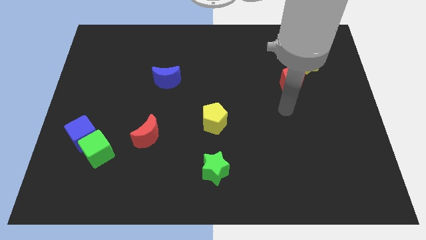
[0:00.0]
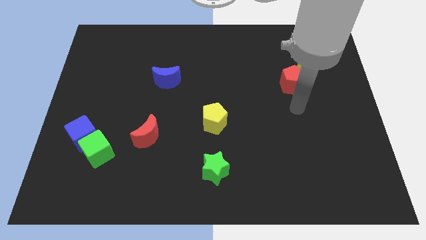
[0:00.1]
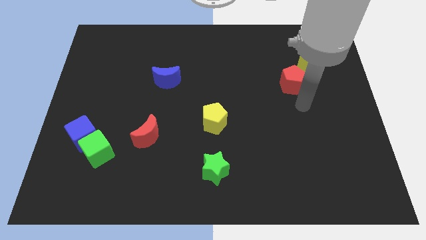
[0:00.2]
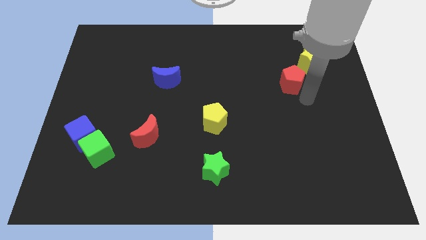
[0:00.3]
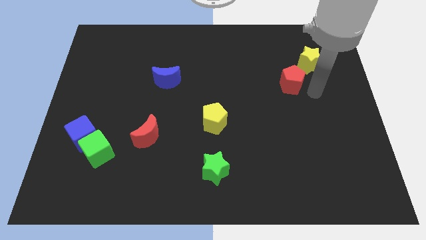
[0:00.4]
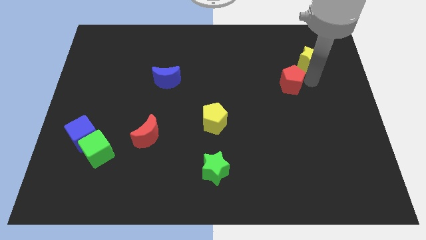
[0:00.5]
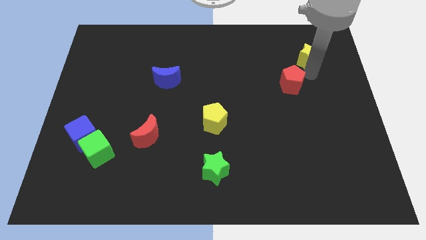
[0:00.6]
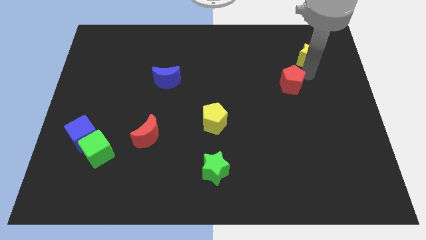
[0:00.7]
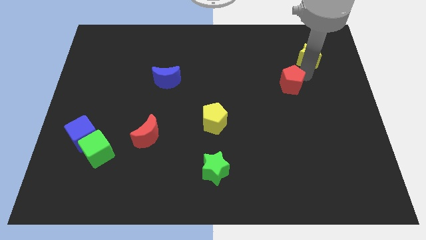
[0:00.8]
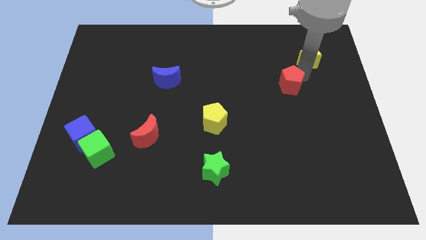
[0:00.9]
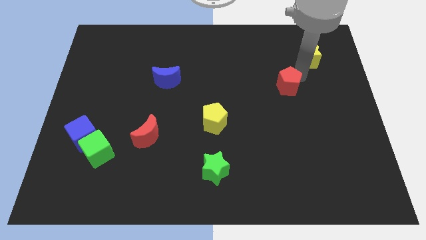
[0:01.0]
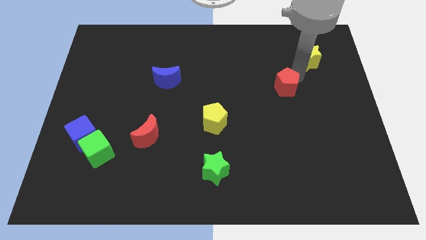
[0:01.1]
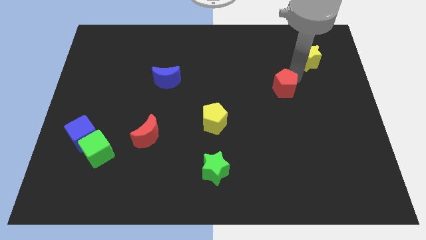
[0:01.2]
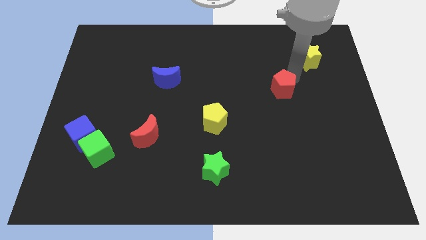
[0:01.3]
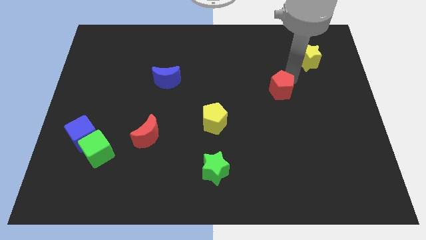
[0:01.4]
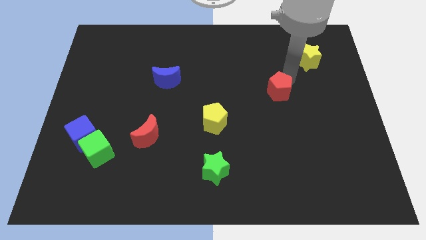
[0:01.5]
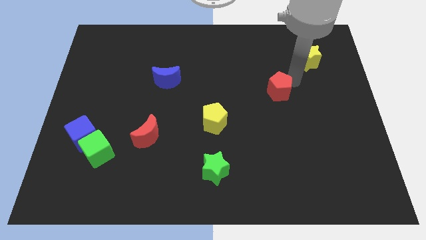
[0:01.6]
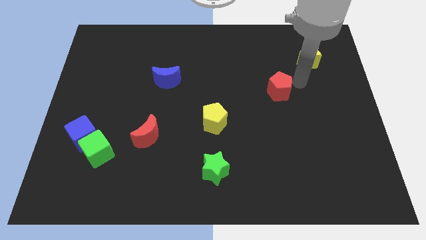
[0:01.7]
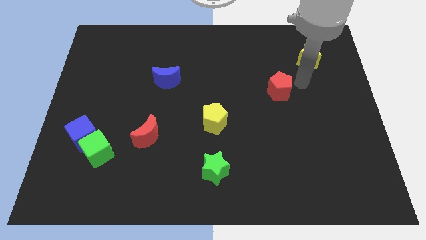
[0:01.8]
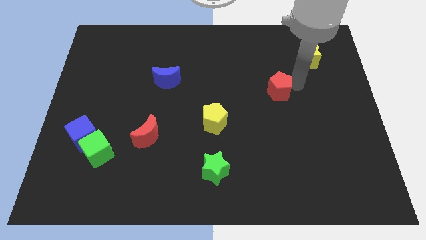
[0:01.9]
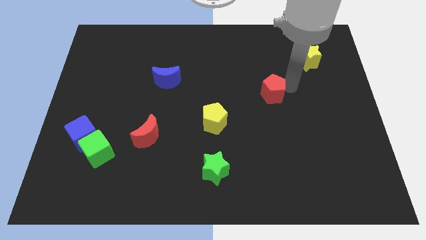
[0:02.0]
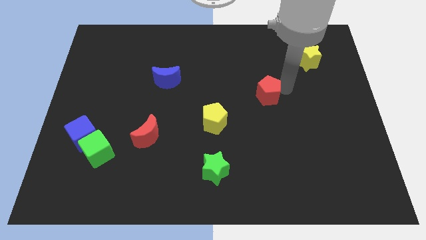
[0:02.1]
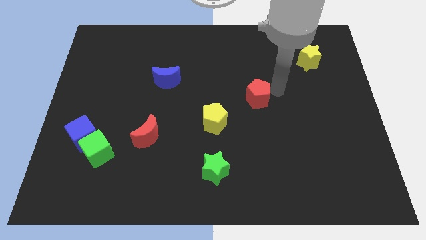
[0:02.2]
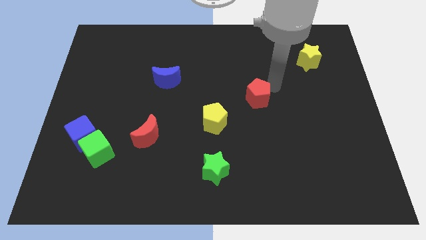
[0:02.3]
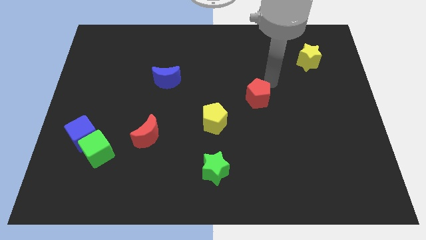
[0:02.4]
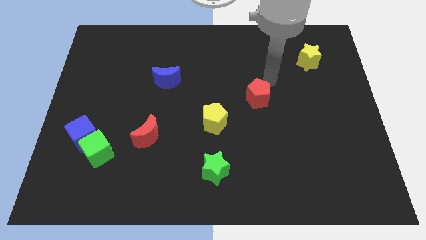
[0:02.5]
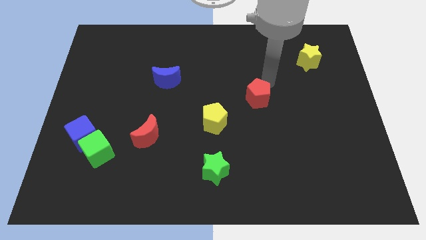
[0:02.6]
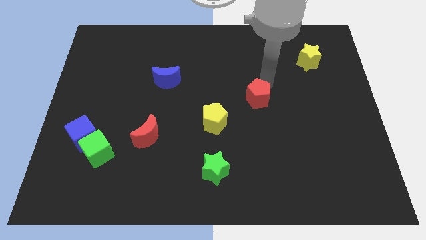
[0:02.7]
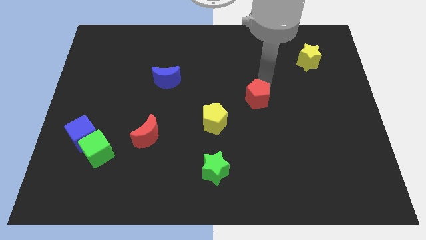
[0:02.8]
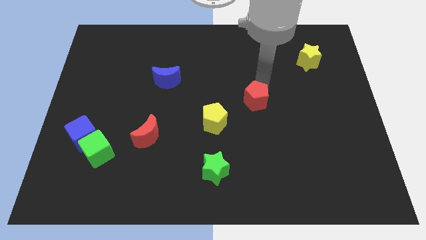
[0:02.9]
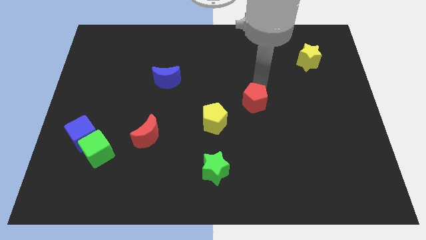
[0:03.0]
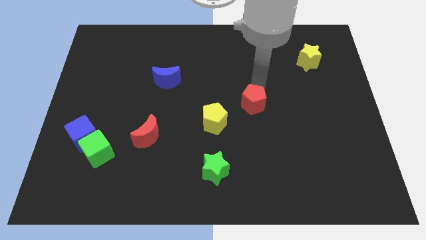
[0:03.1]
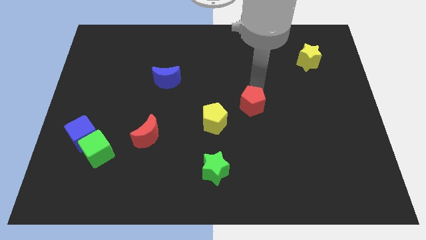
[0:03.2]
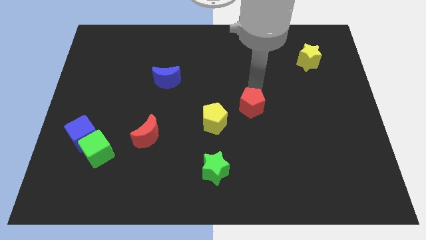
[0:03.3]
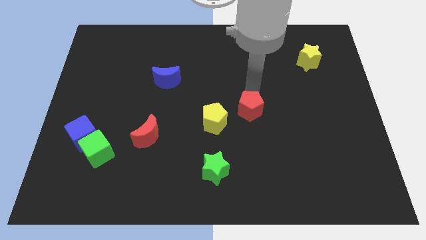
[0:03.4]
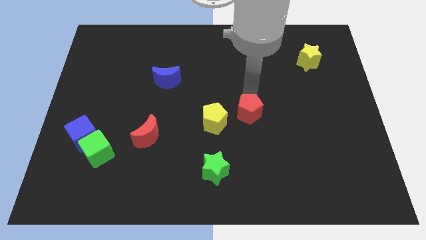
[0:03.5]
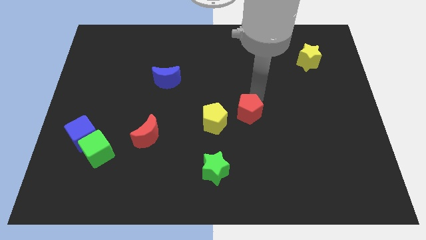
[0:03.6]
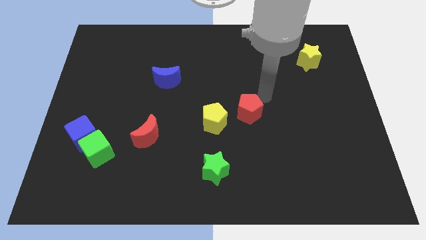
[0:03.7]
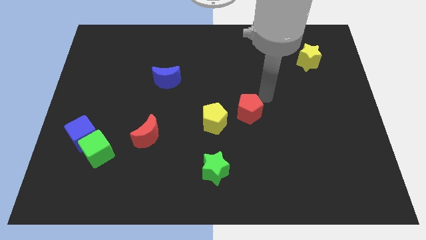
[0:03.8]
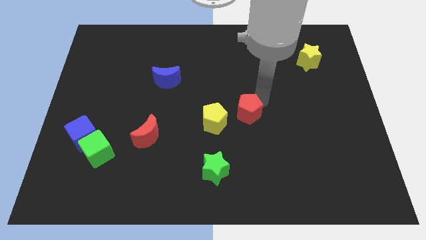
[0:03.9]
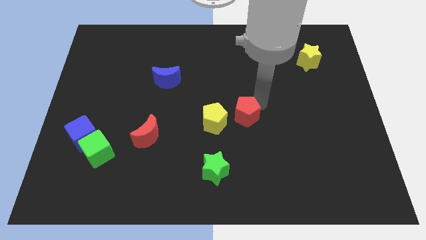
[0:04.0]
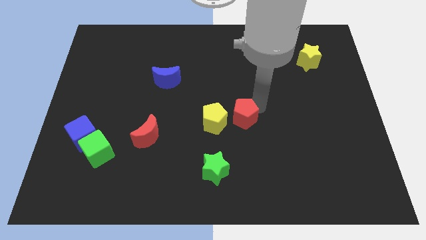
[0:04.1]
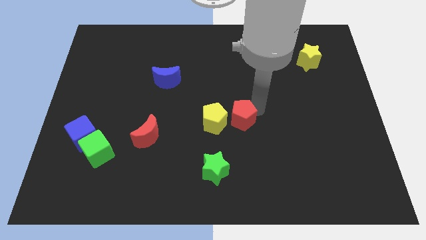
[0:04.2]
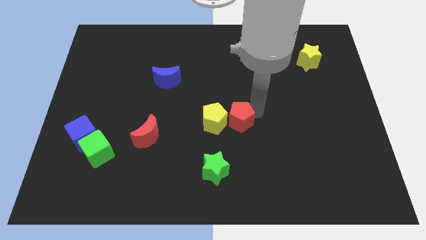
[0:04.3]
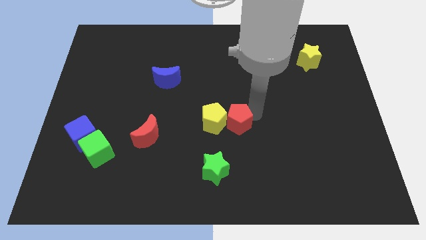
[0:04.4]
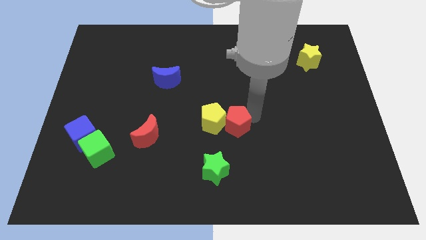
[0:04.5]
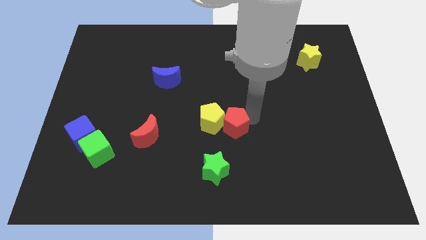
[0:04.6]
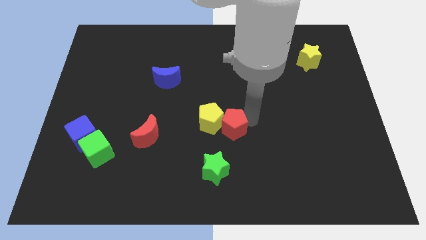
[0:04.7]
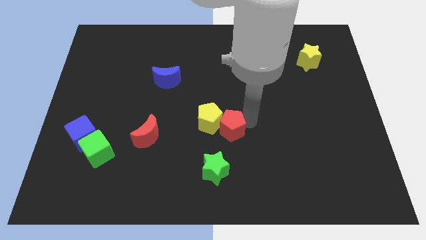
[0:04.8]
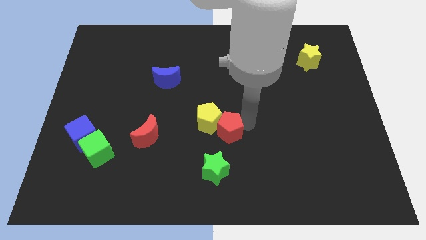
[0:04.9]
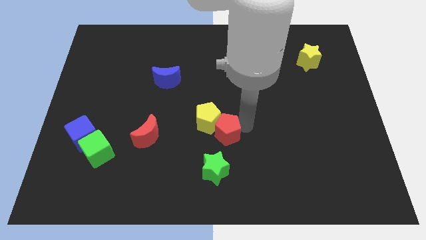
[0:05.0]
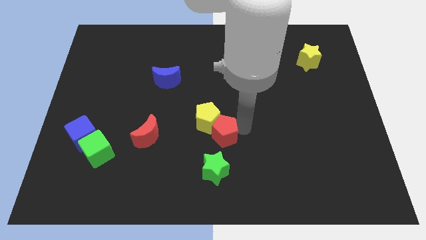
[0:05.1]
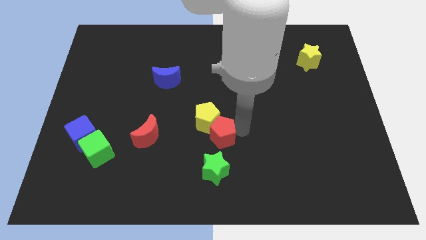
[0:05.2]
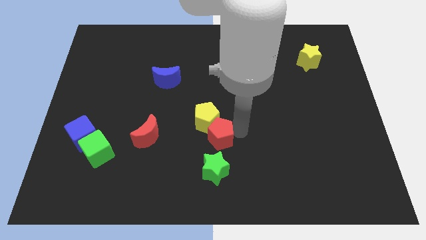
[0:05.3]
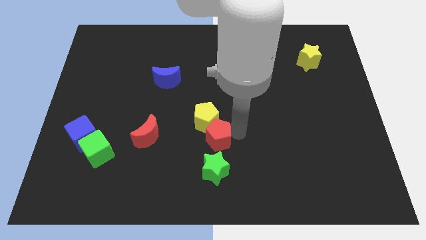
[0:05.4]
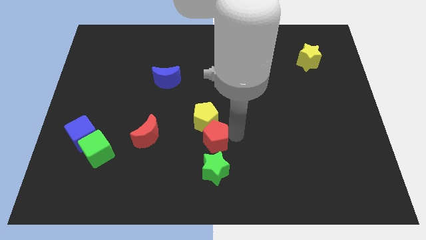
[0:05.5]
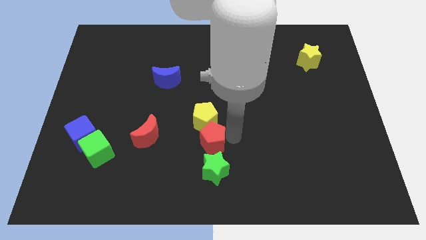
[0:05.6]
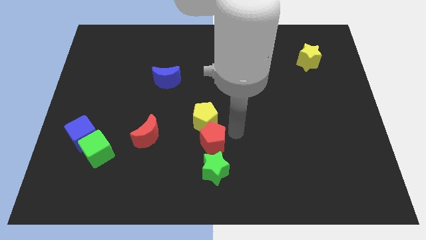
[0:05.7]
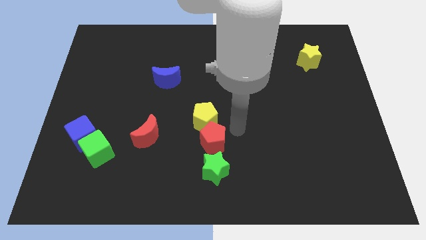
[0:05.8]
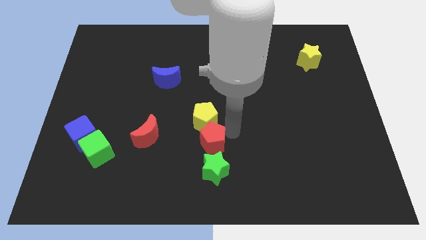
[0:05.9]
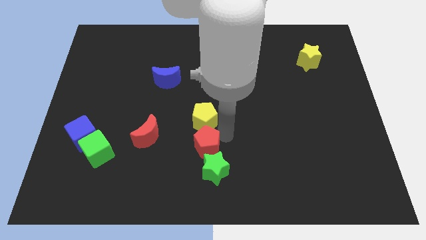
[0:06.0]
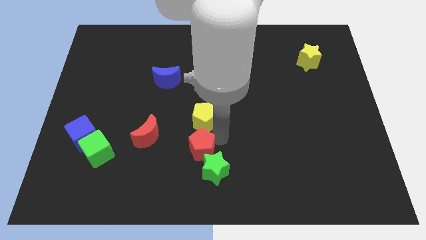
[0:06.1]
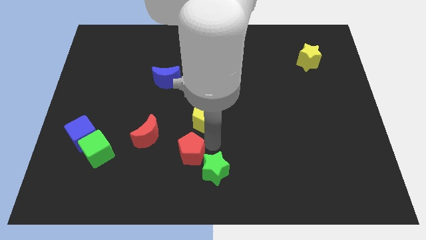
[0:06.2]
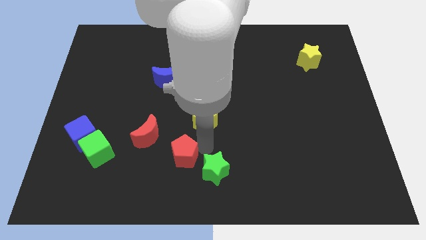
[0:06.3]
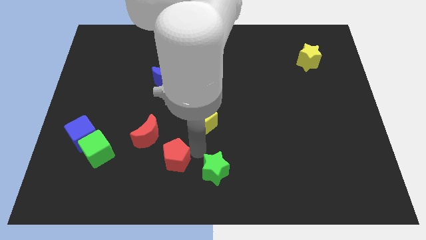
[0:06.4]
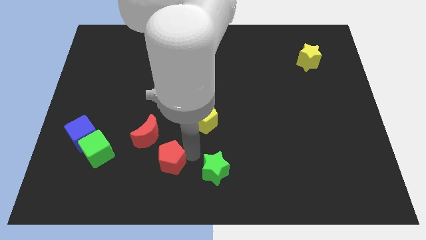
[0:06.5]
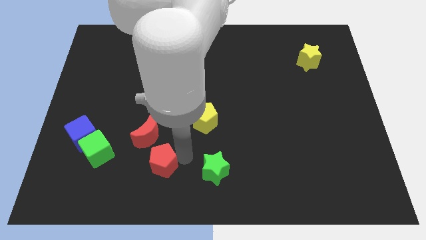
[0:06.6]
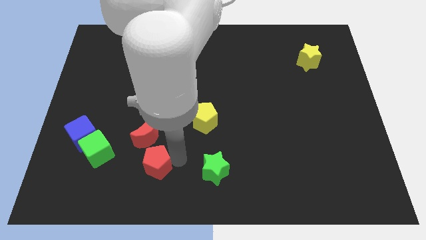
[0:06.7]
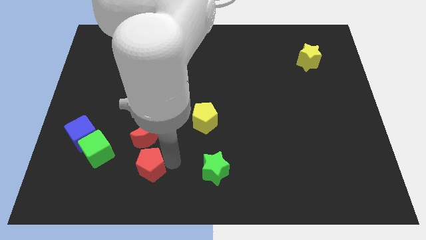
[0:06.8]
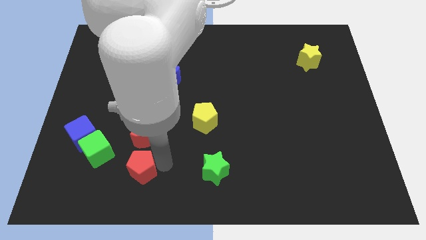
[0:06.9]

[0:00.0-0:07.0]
move the red pentagon to the bottom right of the green cube
